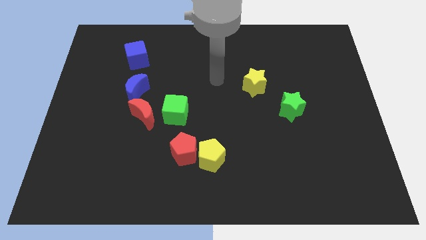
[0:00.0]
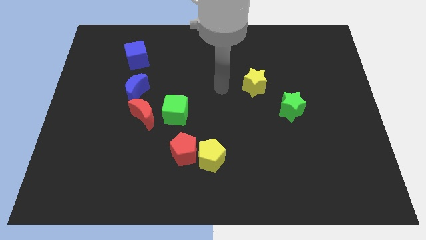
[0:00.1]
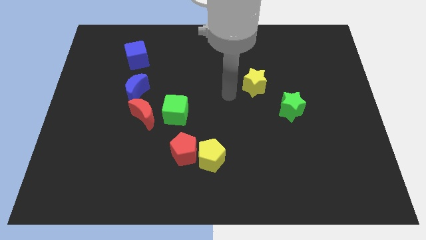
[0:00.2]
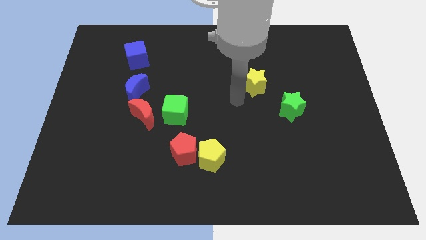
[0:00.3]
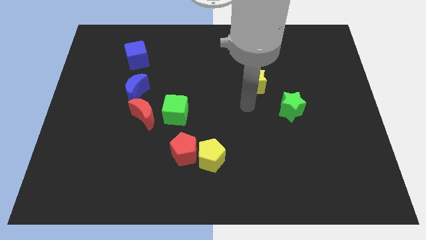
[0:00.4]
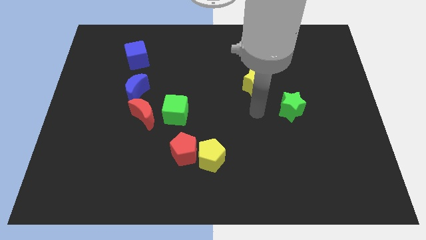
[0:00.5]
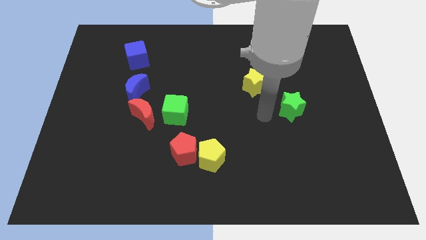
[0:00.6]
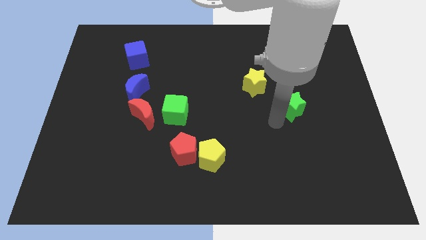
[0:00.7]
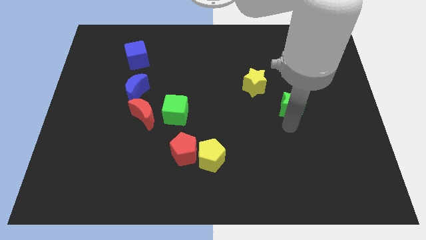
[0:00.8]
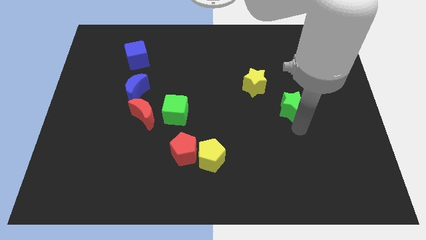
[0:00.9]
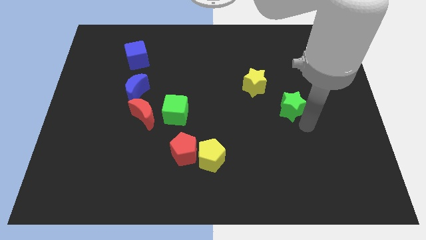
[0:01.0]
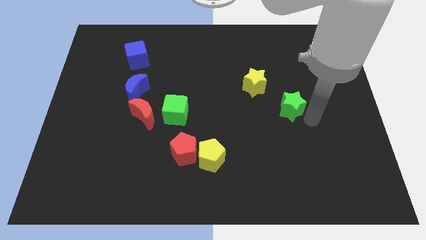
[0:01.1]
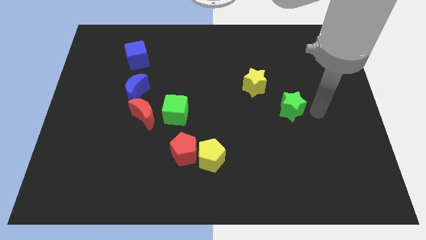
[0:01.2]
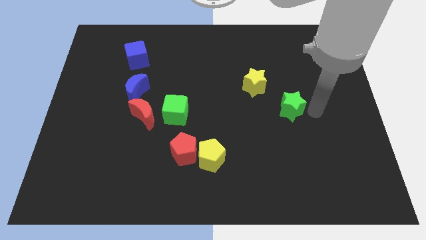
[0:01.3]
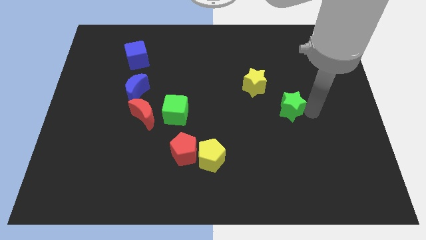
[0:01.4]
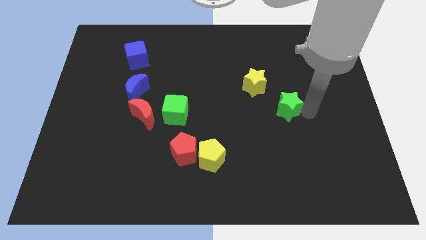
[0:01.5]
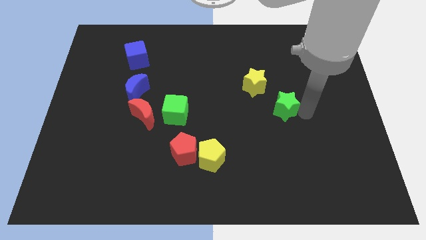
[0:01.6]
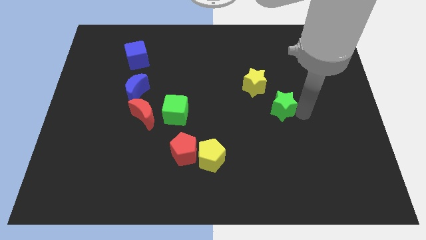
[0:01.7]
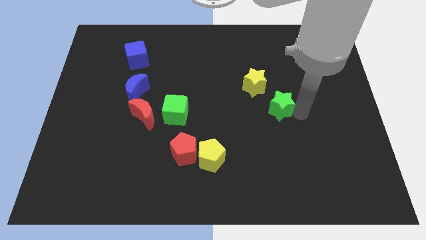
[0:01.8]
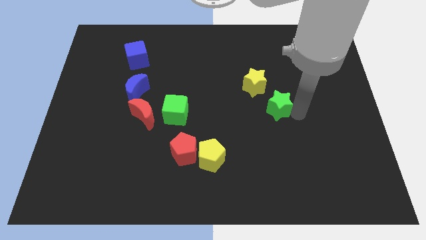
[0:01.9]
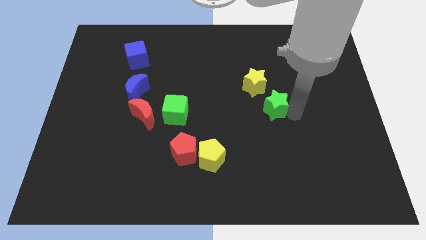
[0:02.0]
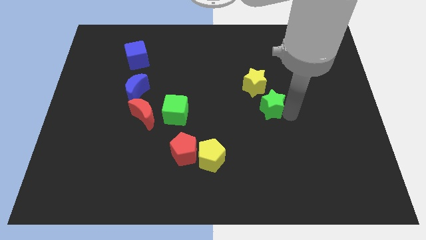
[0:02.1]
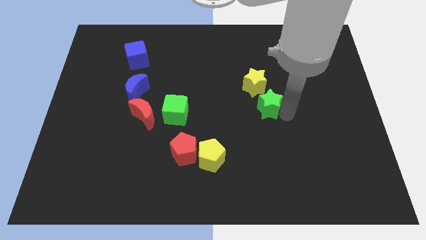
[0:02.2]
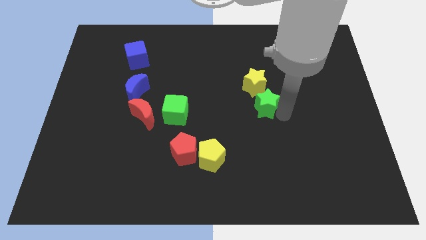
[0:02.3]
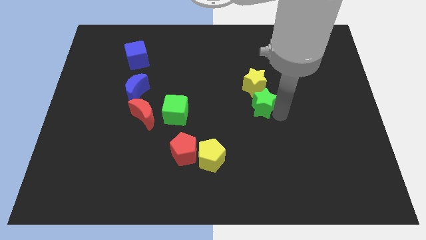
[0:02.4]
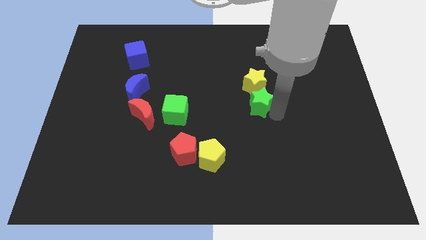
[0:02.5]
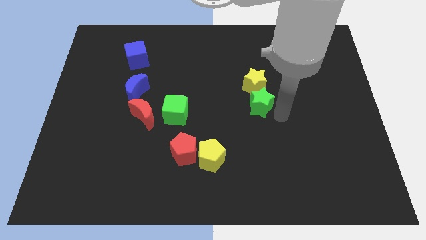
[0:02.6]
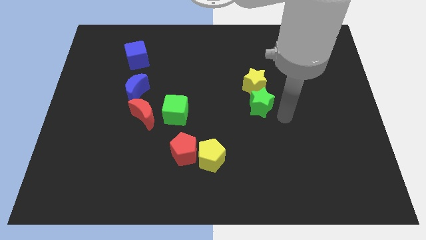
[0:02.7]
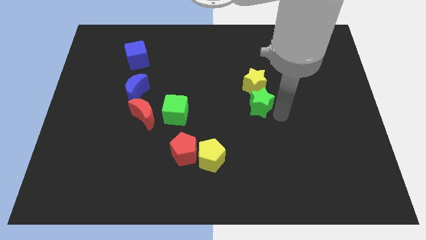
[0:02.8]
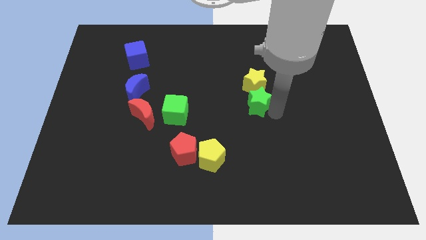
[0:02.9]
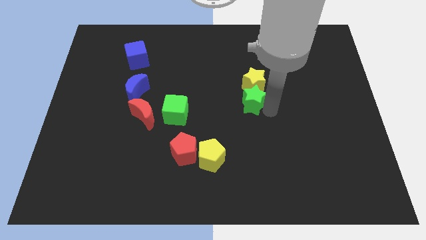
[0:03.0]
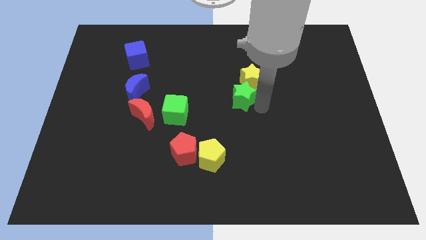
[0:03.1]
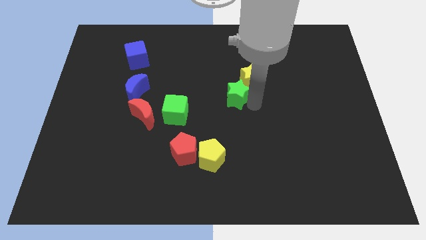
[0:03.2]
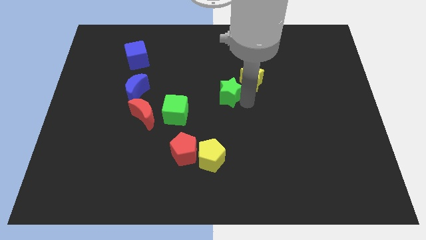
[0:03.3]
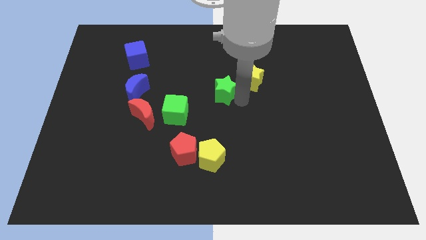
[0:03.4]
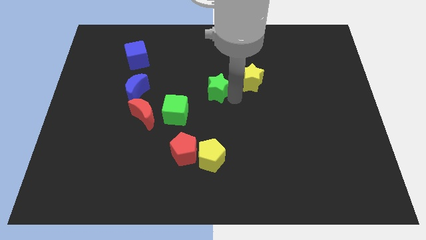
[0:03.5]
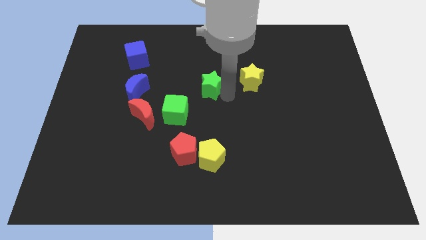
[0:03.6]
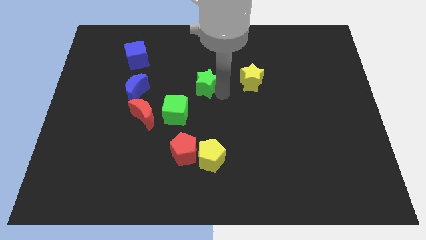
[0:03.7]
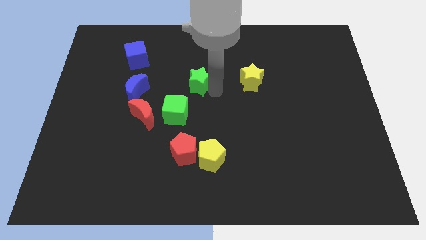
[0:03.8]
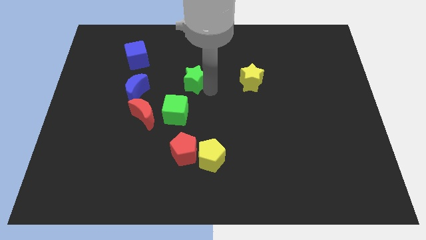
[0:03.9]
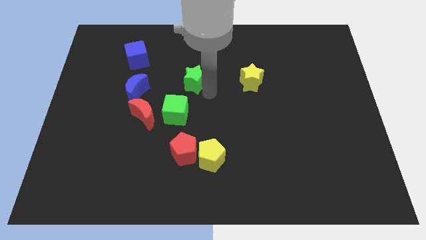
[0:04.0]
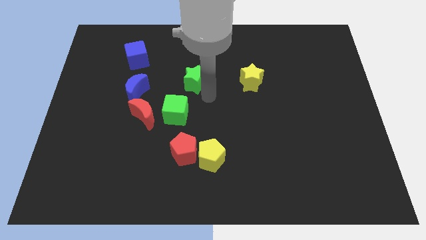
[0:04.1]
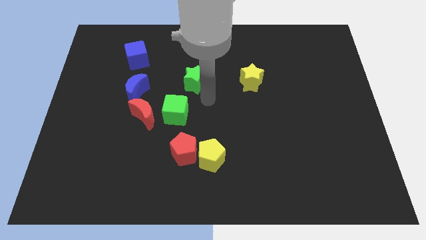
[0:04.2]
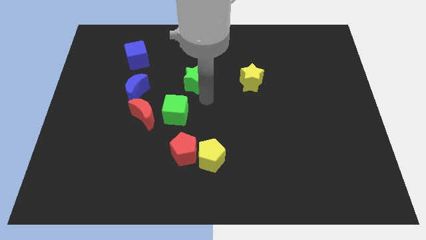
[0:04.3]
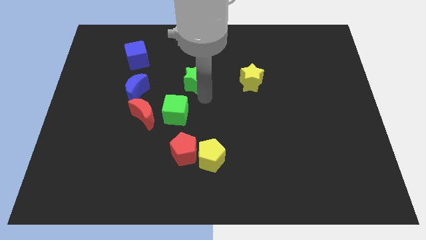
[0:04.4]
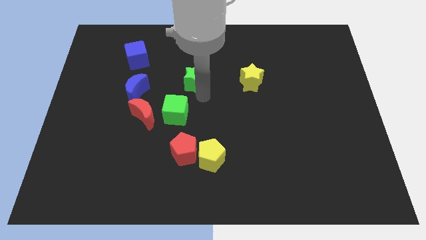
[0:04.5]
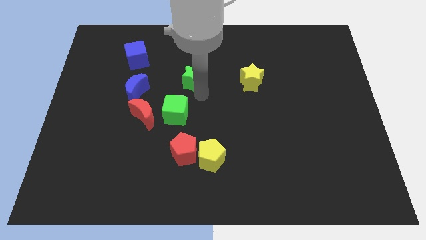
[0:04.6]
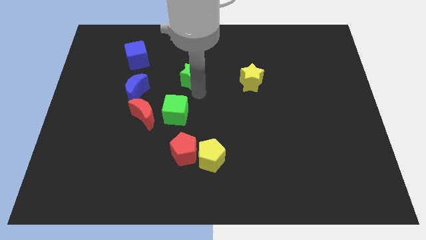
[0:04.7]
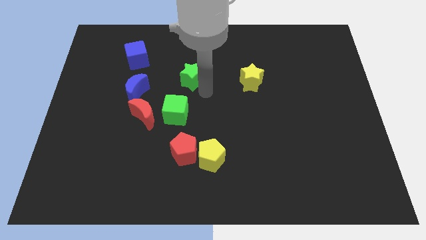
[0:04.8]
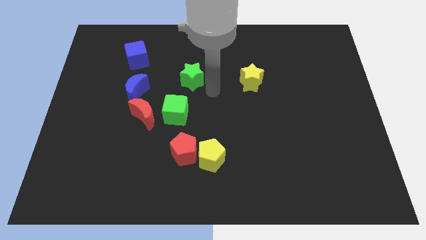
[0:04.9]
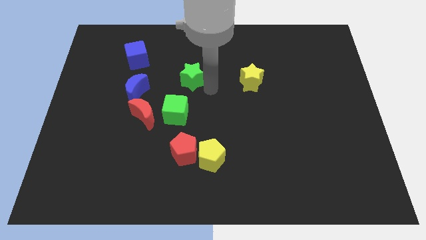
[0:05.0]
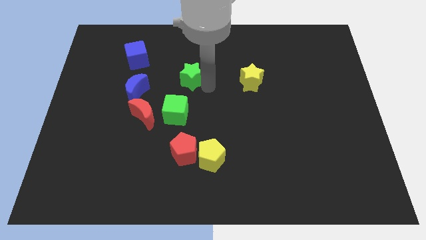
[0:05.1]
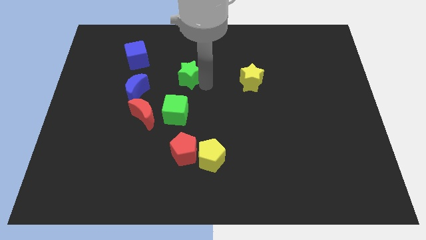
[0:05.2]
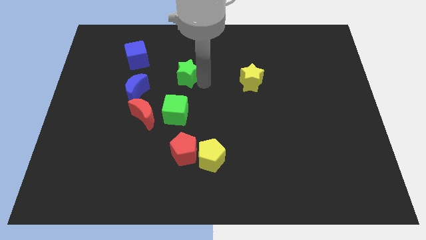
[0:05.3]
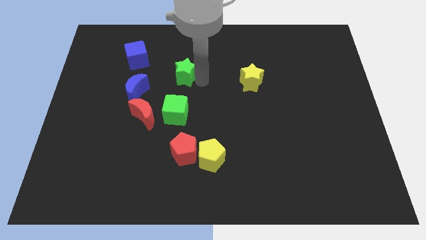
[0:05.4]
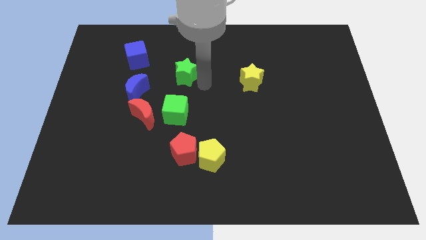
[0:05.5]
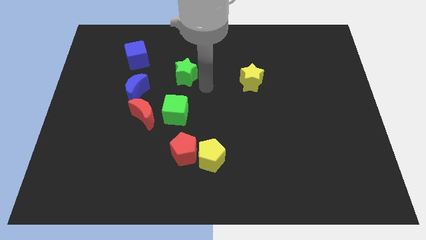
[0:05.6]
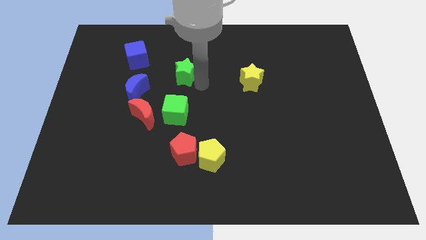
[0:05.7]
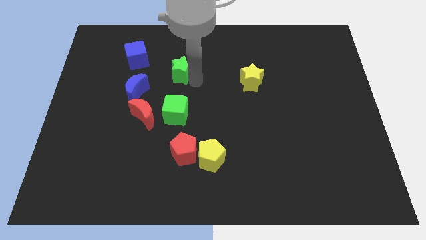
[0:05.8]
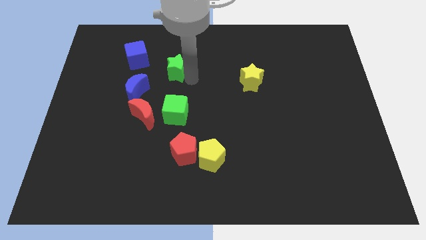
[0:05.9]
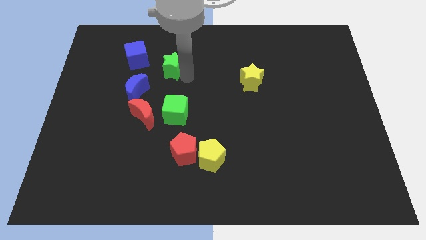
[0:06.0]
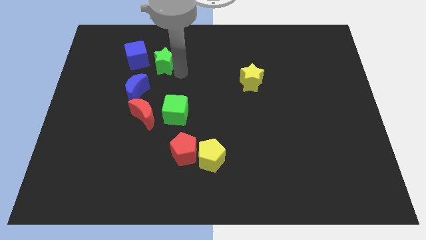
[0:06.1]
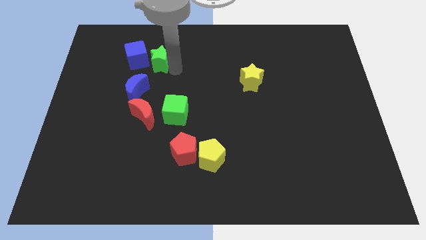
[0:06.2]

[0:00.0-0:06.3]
put the green star next to the blue cube
